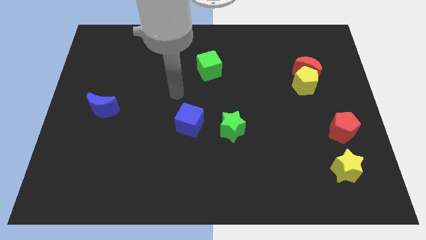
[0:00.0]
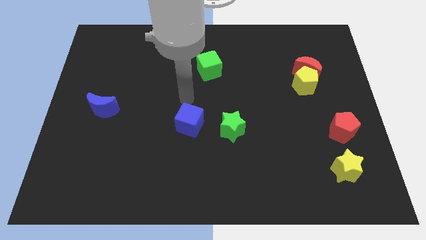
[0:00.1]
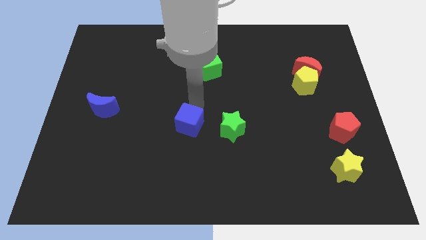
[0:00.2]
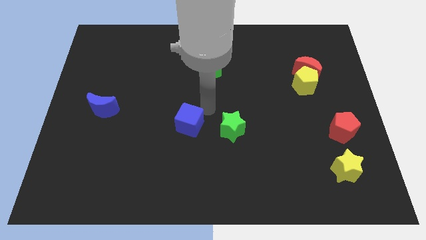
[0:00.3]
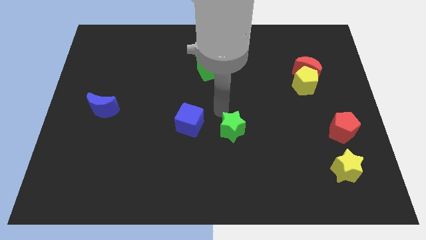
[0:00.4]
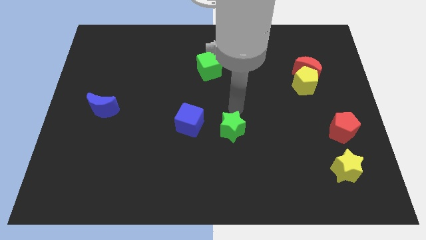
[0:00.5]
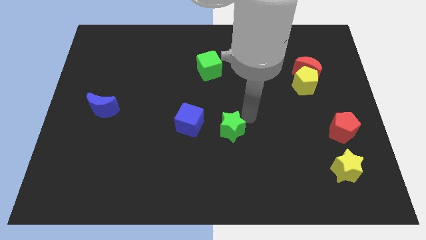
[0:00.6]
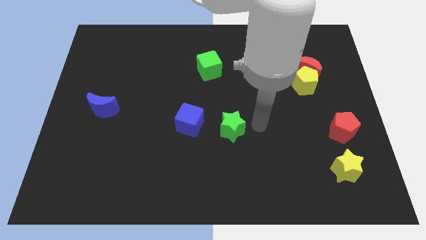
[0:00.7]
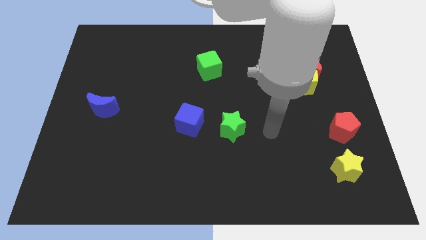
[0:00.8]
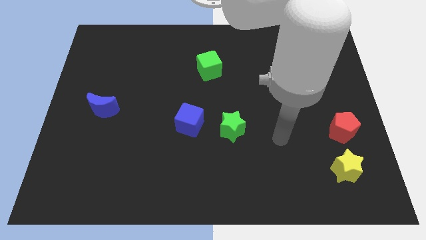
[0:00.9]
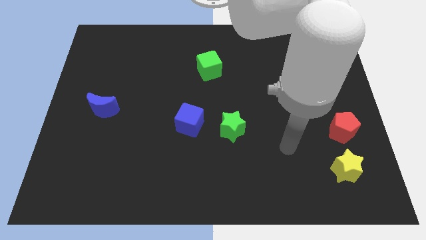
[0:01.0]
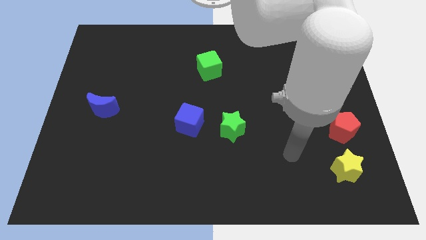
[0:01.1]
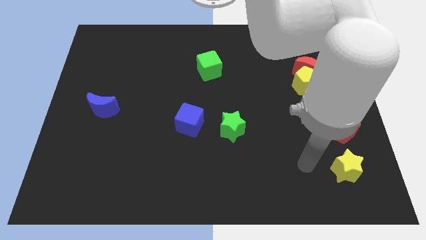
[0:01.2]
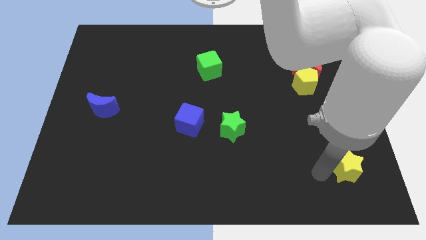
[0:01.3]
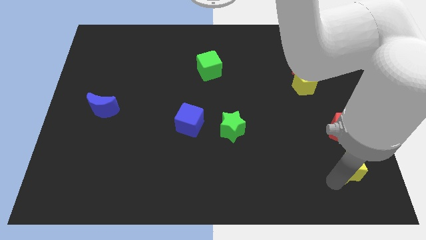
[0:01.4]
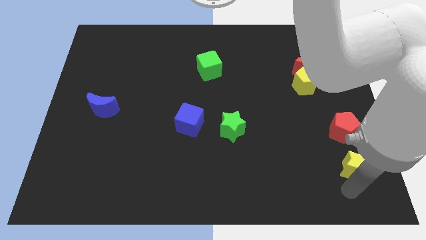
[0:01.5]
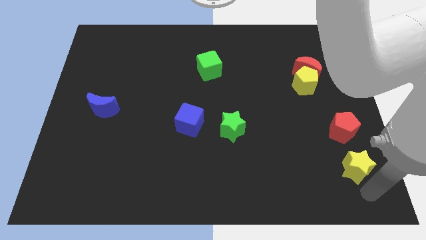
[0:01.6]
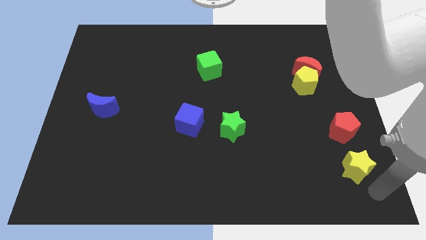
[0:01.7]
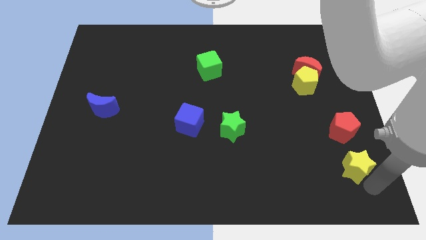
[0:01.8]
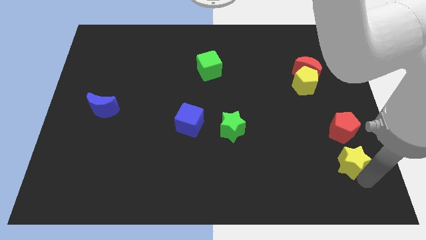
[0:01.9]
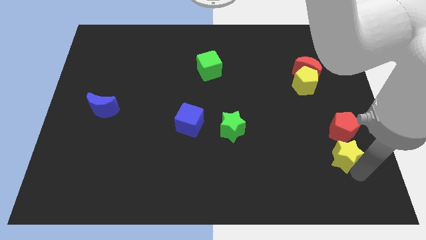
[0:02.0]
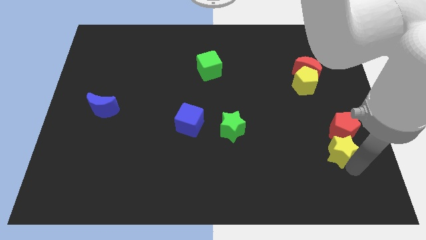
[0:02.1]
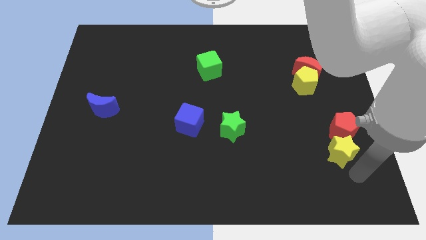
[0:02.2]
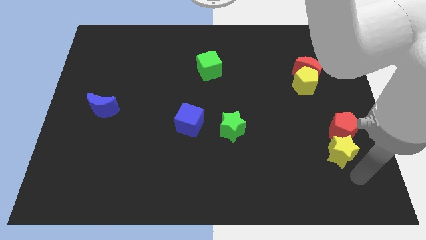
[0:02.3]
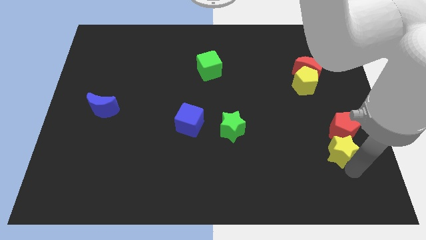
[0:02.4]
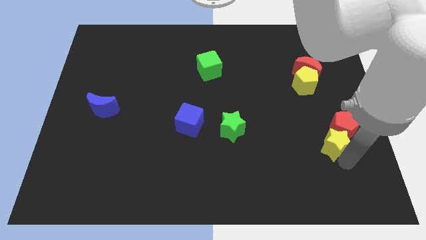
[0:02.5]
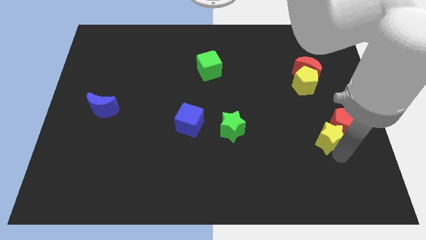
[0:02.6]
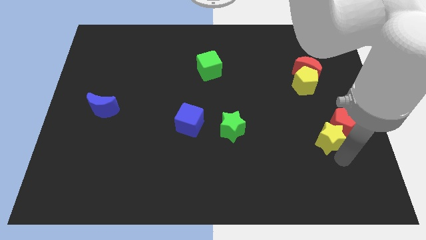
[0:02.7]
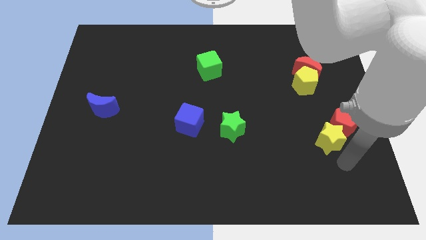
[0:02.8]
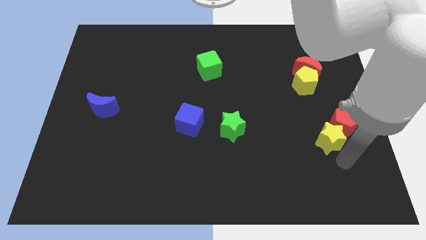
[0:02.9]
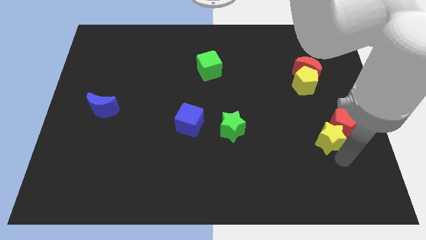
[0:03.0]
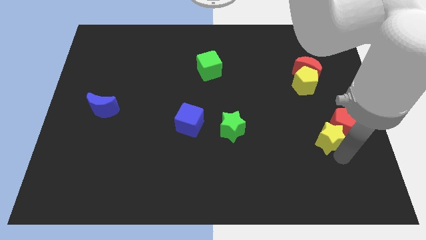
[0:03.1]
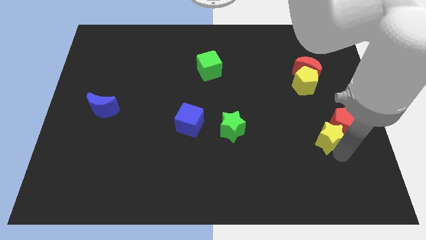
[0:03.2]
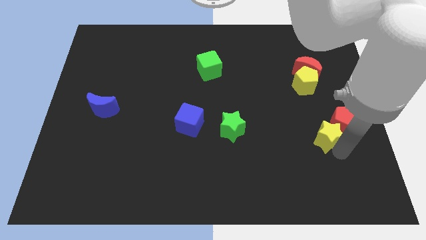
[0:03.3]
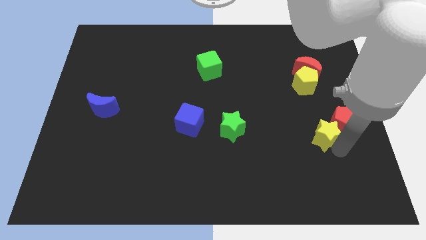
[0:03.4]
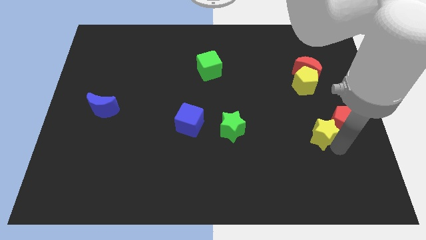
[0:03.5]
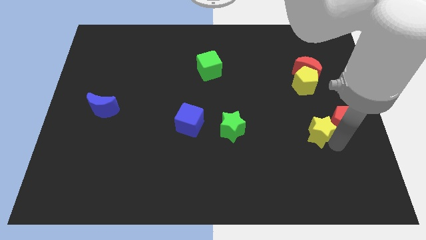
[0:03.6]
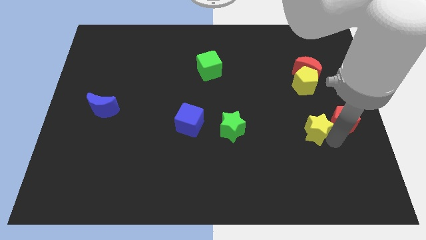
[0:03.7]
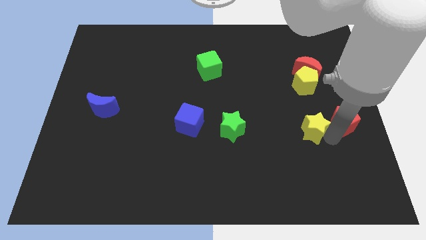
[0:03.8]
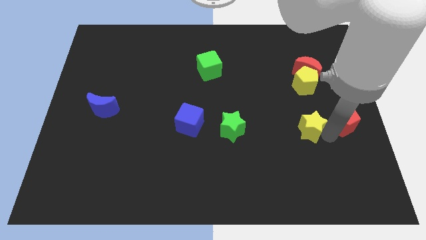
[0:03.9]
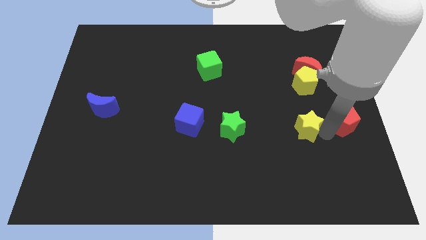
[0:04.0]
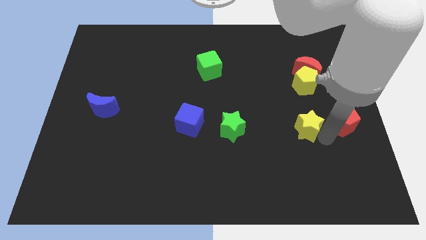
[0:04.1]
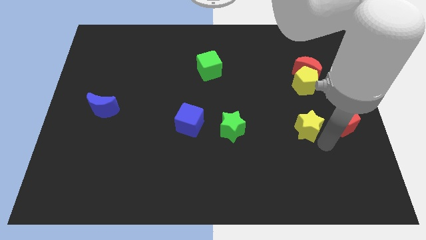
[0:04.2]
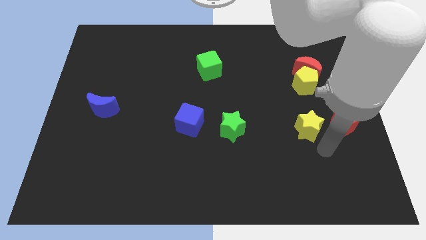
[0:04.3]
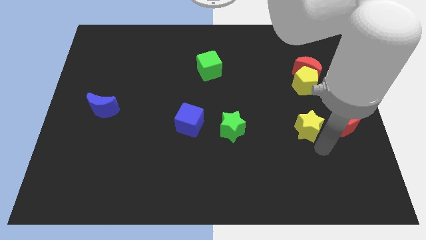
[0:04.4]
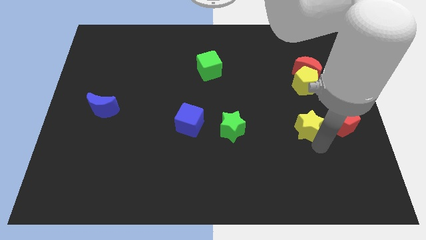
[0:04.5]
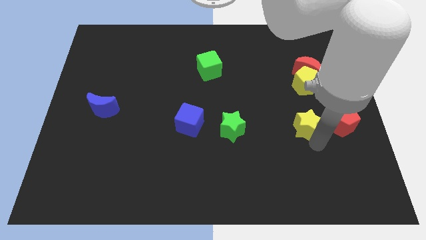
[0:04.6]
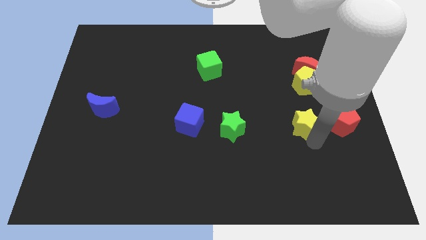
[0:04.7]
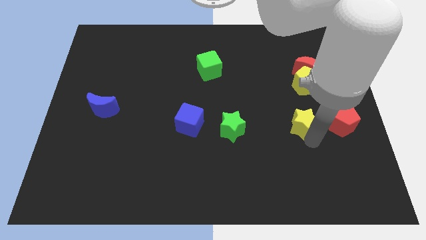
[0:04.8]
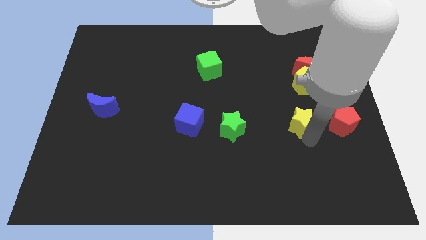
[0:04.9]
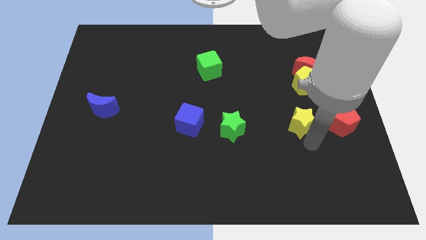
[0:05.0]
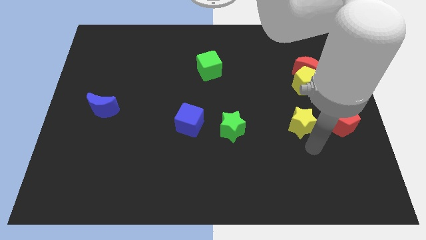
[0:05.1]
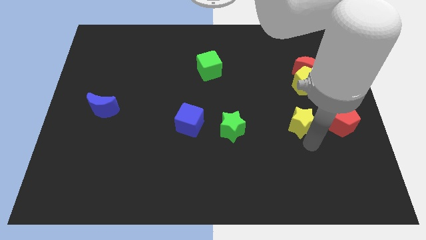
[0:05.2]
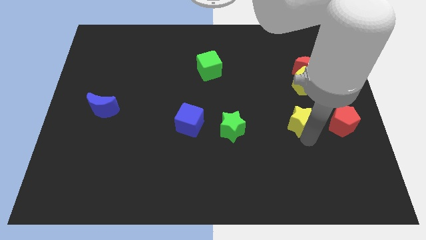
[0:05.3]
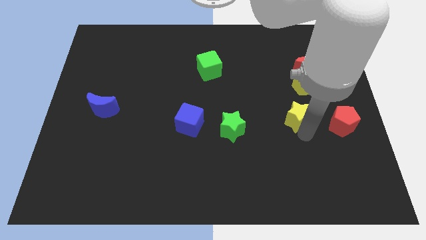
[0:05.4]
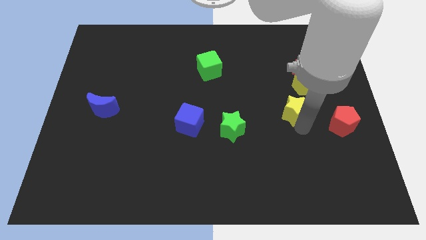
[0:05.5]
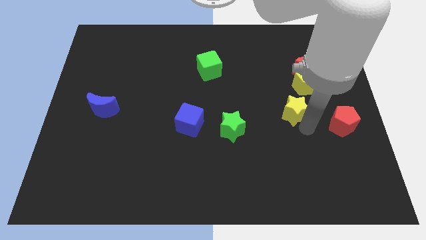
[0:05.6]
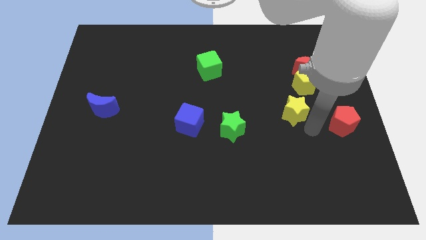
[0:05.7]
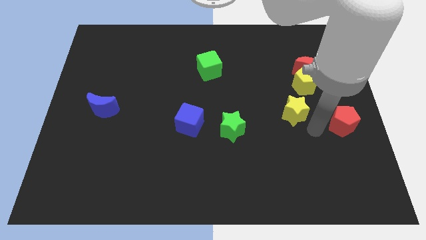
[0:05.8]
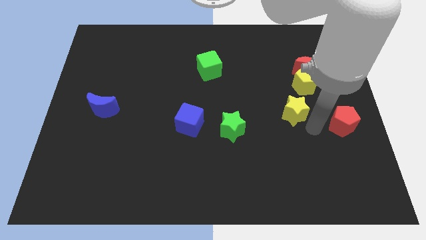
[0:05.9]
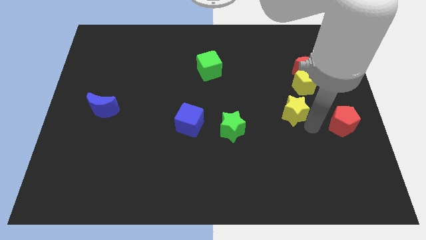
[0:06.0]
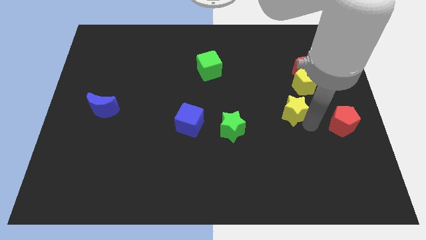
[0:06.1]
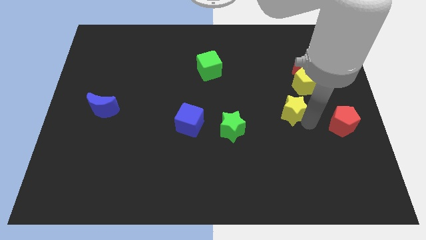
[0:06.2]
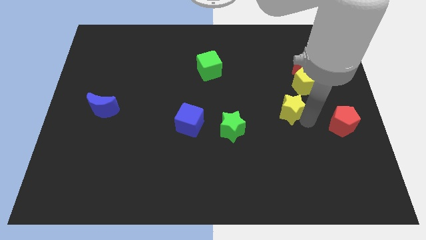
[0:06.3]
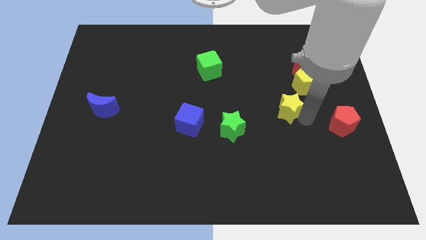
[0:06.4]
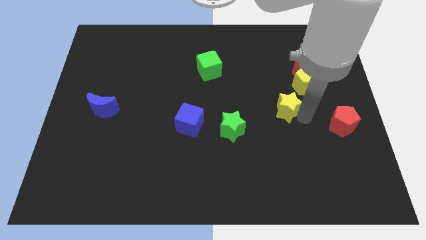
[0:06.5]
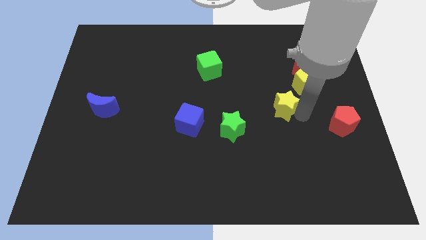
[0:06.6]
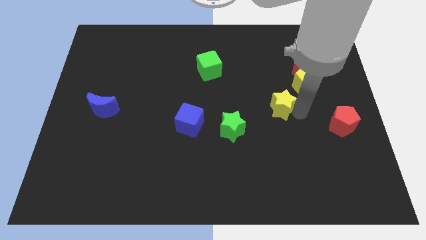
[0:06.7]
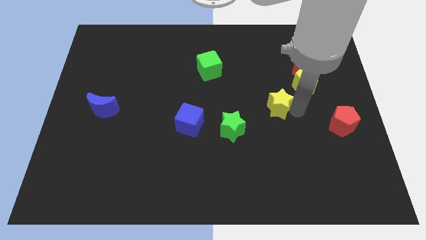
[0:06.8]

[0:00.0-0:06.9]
move the yellow star up and to the left diagonally

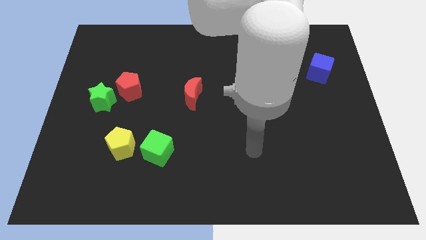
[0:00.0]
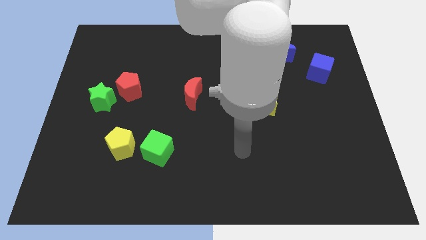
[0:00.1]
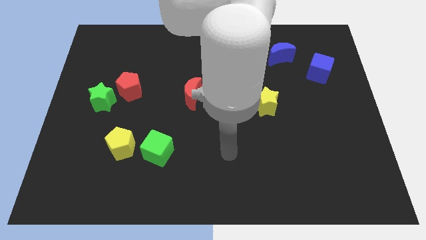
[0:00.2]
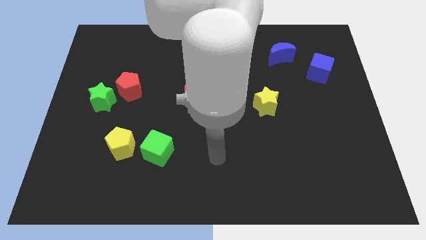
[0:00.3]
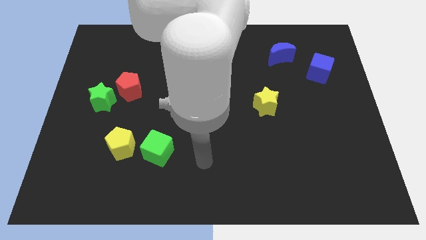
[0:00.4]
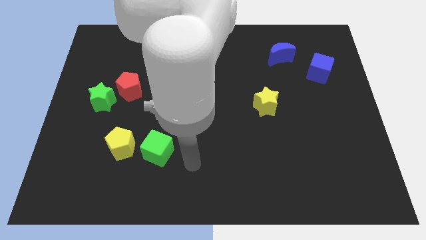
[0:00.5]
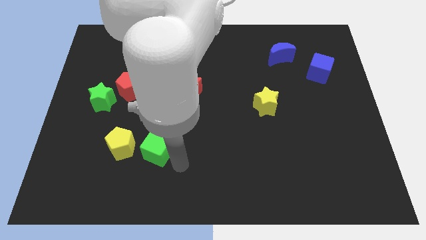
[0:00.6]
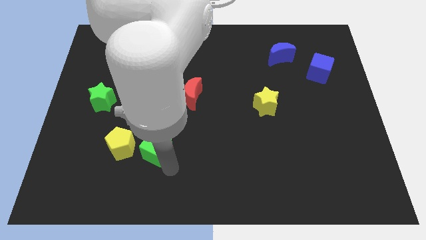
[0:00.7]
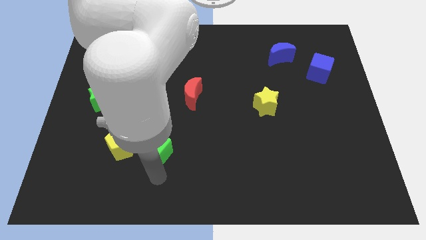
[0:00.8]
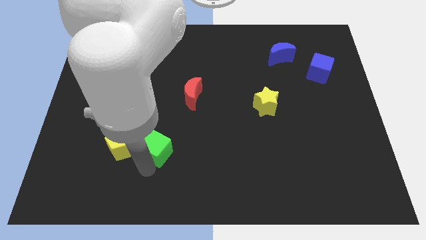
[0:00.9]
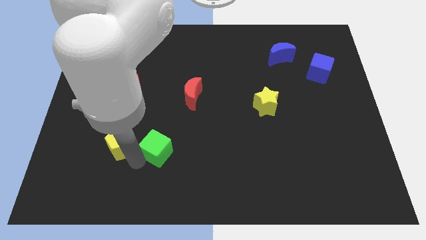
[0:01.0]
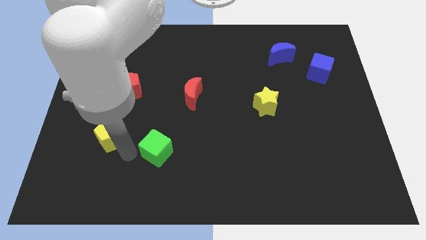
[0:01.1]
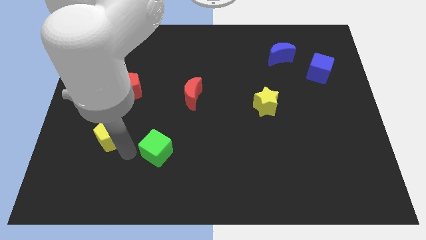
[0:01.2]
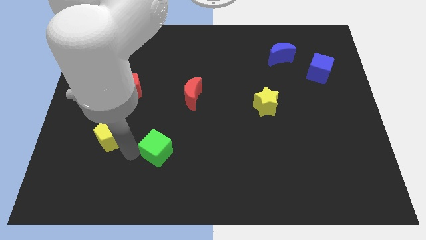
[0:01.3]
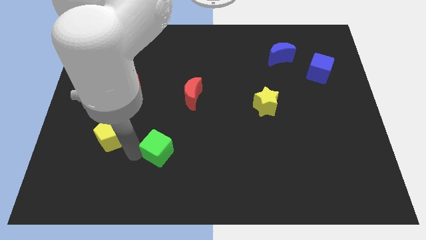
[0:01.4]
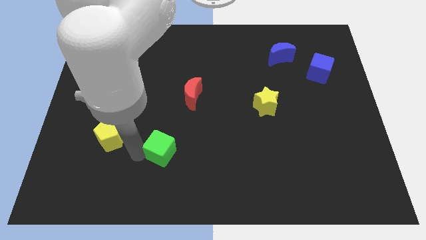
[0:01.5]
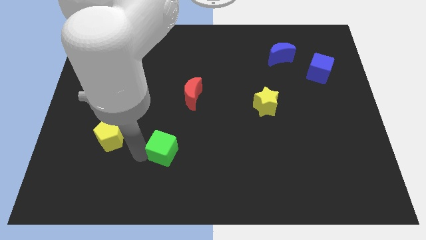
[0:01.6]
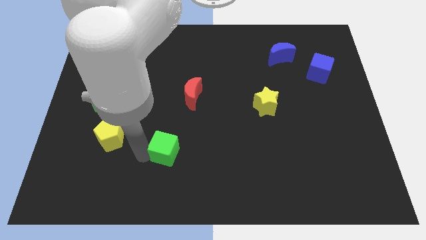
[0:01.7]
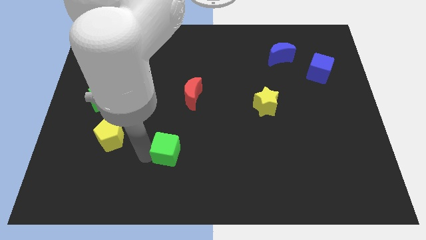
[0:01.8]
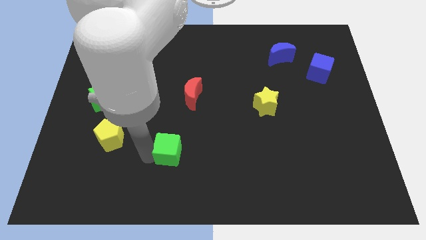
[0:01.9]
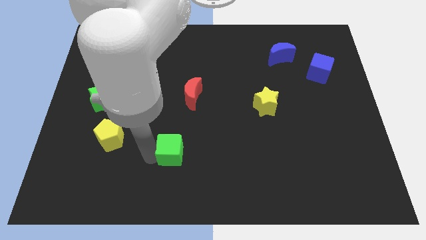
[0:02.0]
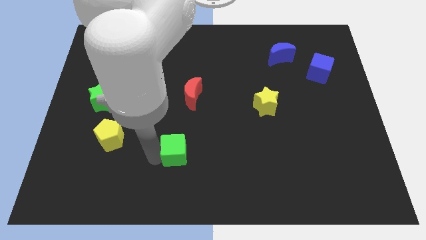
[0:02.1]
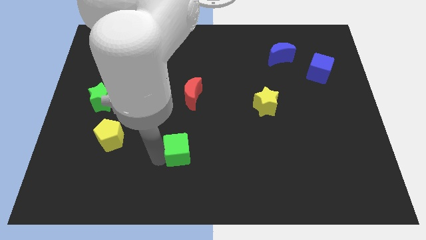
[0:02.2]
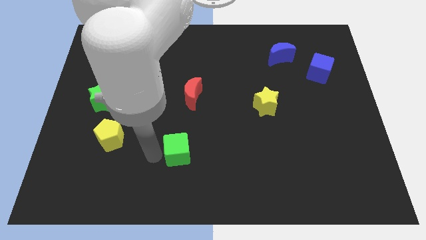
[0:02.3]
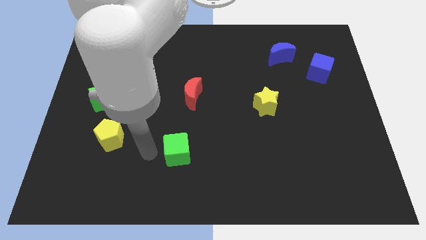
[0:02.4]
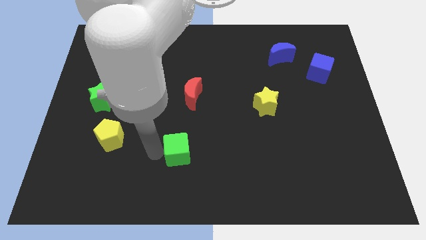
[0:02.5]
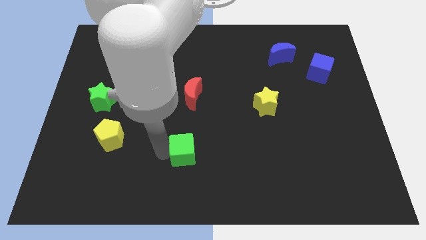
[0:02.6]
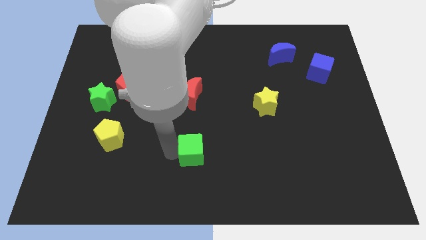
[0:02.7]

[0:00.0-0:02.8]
slide the green cube to the right a little bit
